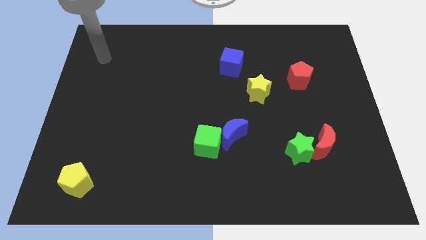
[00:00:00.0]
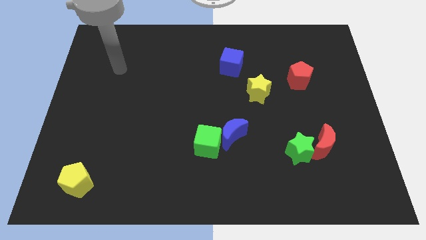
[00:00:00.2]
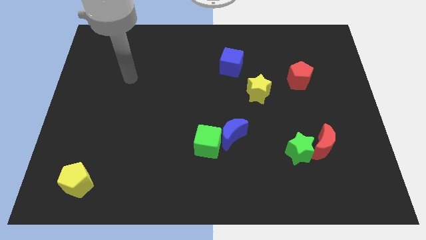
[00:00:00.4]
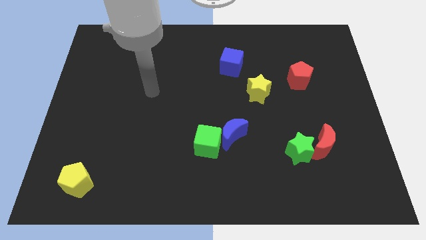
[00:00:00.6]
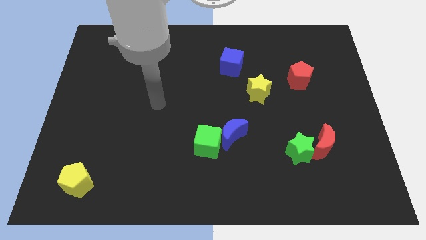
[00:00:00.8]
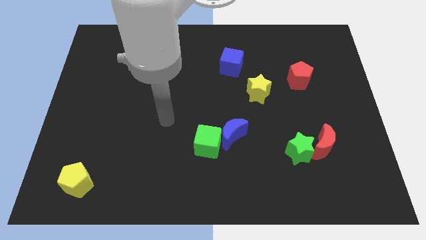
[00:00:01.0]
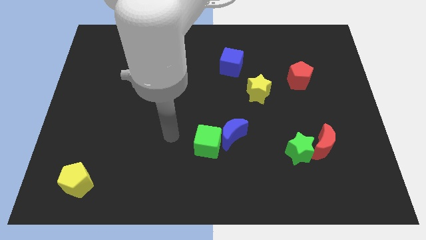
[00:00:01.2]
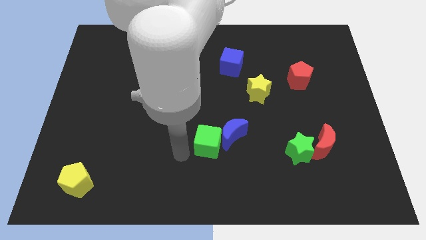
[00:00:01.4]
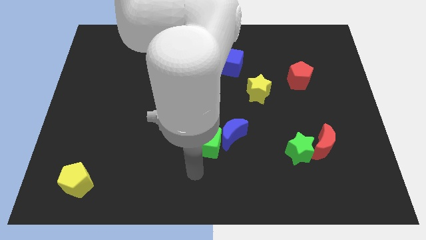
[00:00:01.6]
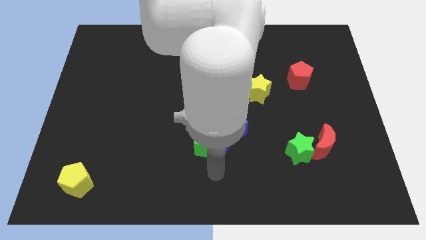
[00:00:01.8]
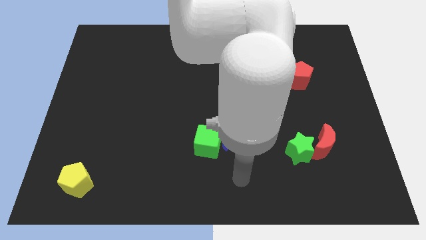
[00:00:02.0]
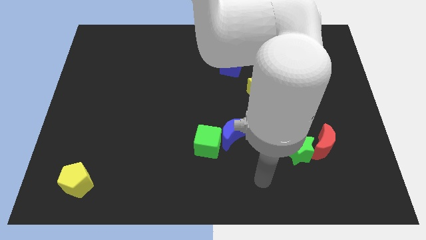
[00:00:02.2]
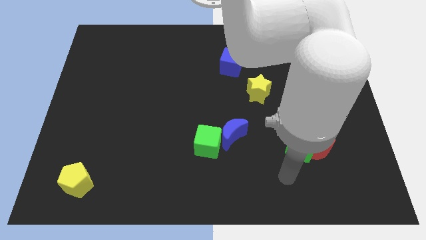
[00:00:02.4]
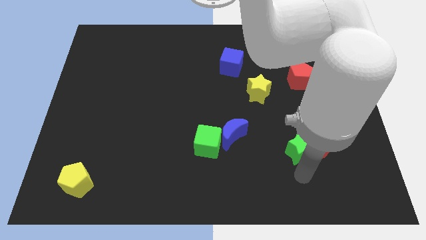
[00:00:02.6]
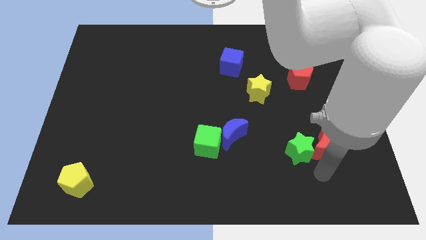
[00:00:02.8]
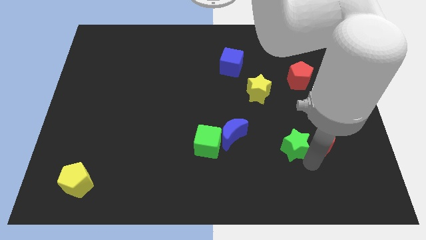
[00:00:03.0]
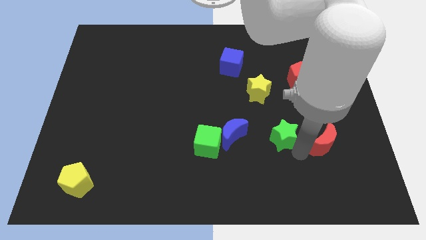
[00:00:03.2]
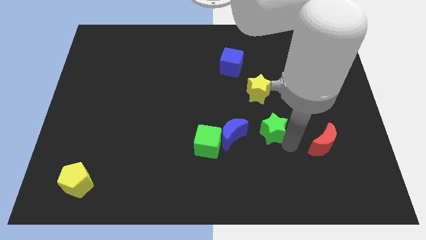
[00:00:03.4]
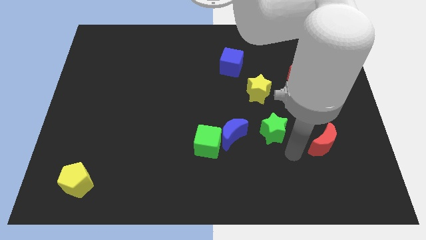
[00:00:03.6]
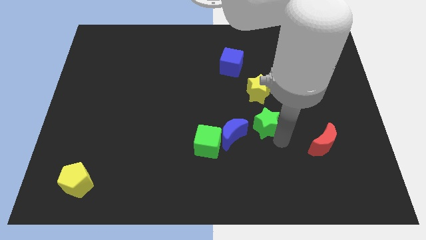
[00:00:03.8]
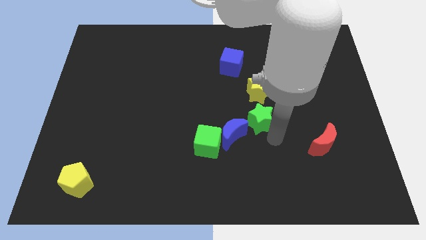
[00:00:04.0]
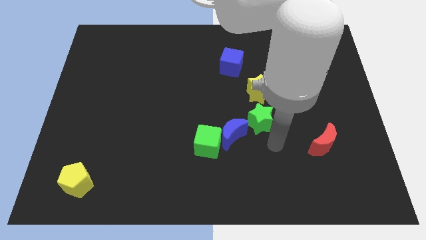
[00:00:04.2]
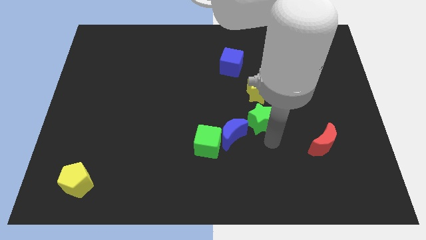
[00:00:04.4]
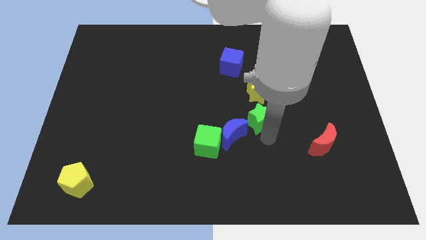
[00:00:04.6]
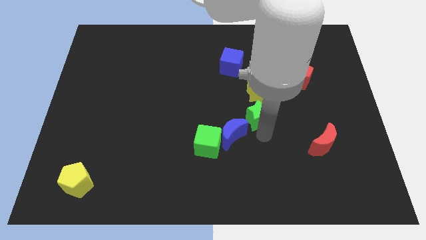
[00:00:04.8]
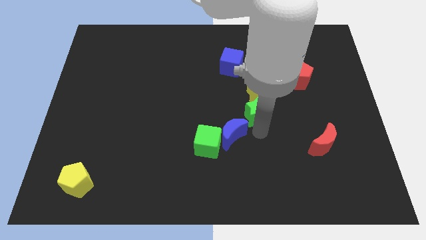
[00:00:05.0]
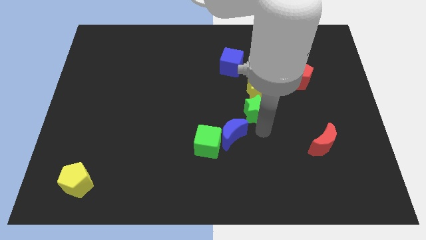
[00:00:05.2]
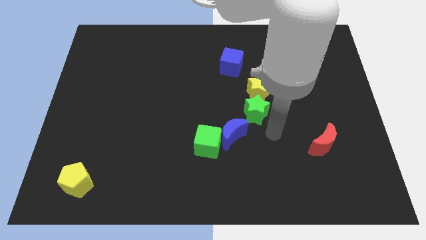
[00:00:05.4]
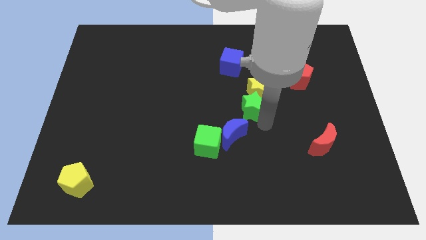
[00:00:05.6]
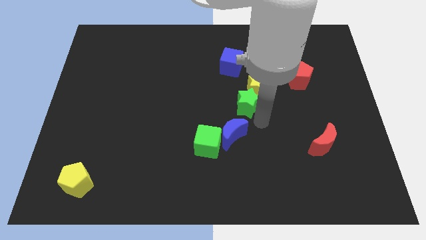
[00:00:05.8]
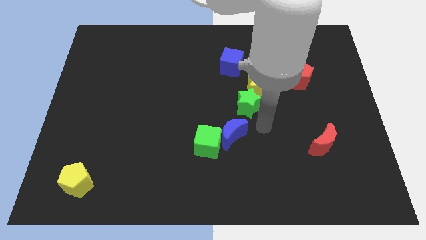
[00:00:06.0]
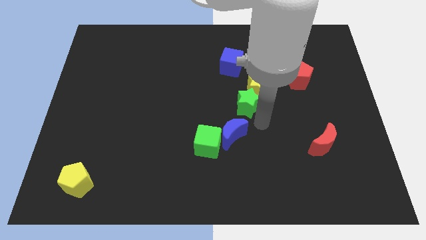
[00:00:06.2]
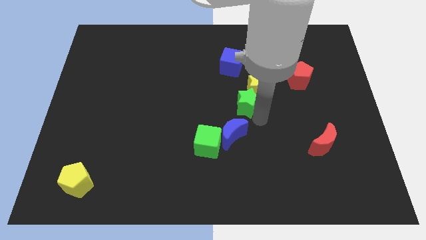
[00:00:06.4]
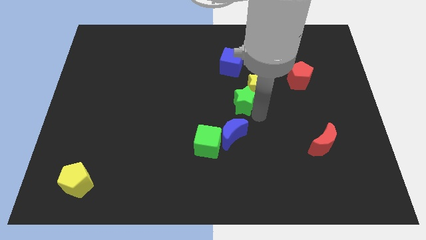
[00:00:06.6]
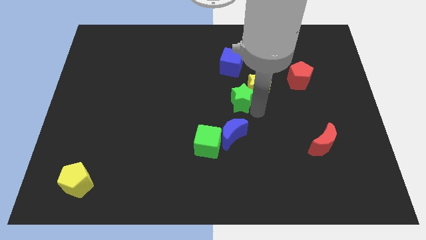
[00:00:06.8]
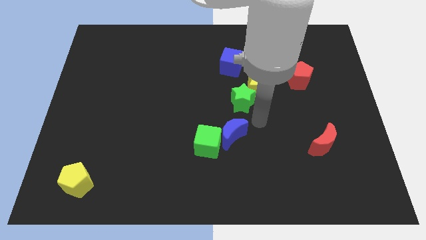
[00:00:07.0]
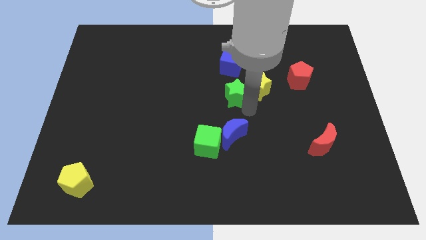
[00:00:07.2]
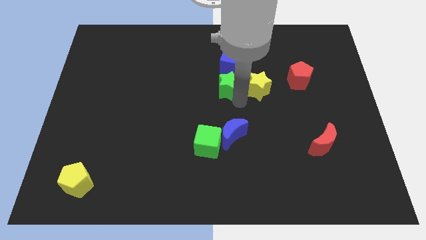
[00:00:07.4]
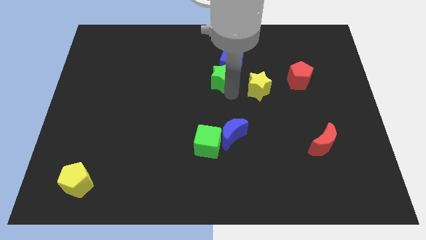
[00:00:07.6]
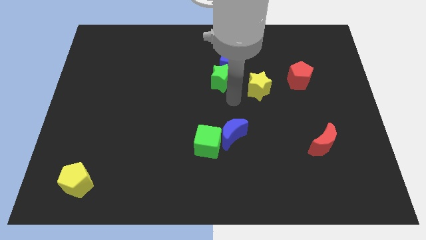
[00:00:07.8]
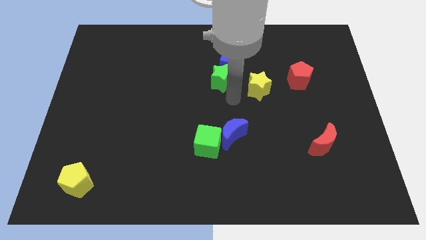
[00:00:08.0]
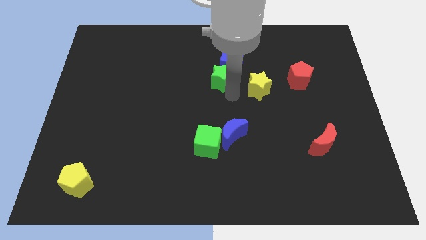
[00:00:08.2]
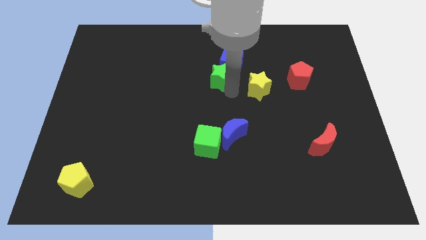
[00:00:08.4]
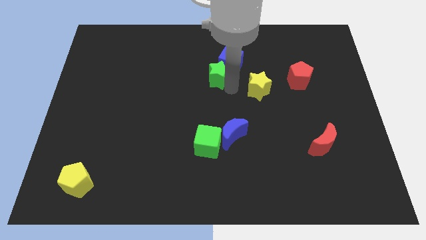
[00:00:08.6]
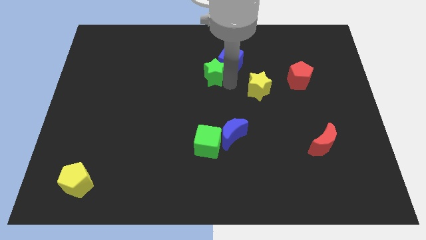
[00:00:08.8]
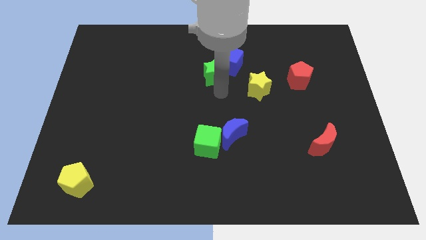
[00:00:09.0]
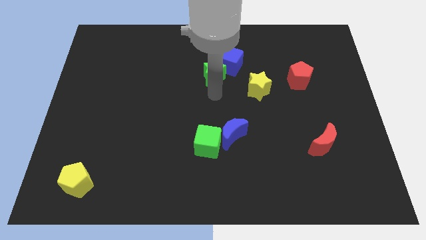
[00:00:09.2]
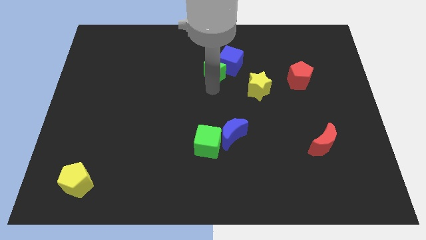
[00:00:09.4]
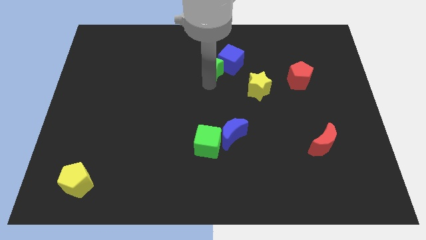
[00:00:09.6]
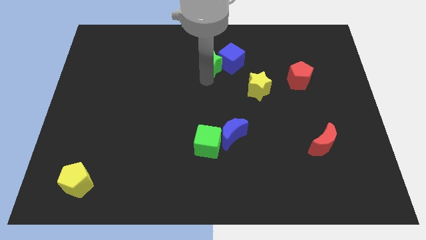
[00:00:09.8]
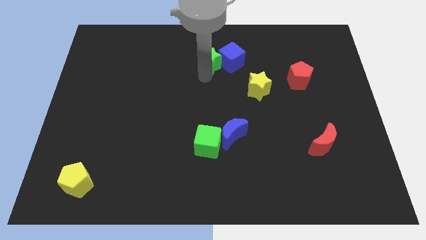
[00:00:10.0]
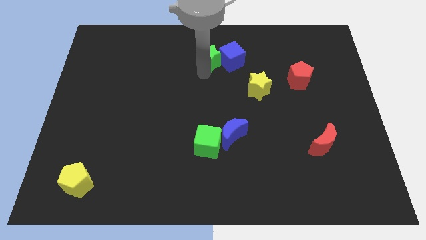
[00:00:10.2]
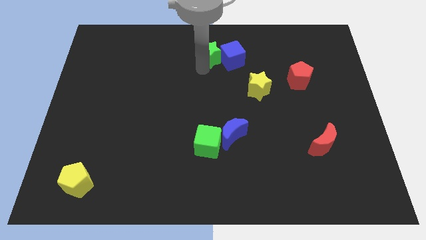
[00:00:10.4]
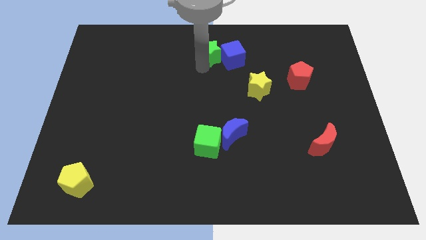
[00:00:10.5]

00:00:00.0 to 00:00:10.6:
move the green star to the top

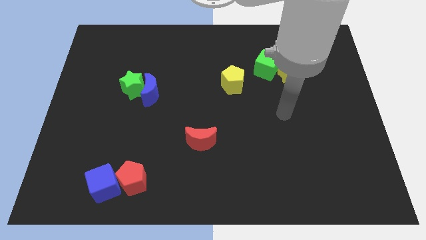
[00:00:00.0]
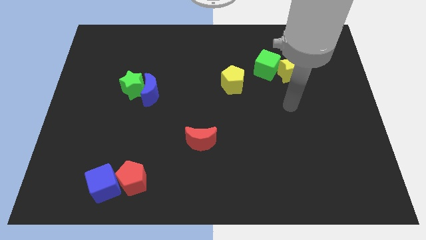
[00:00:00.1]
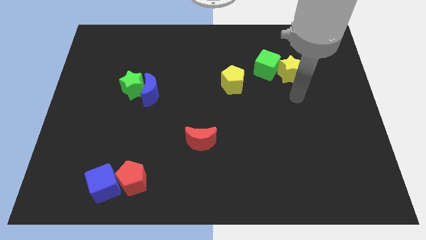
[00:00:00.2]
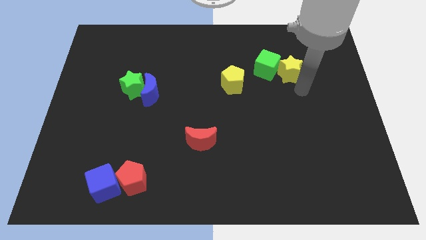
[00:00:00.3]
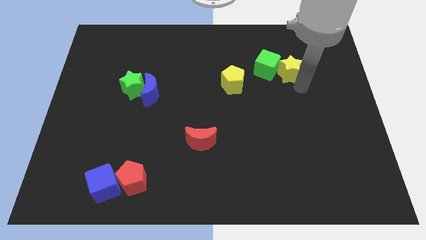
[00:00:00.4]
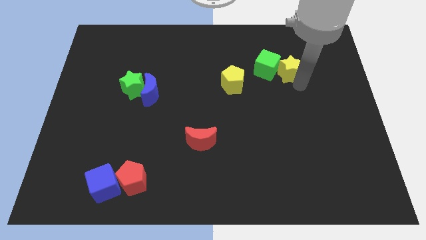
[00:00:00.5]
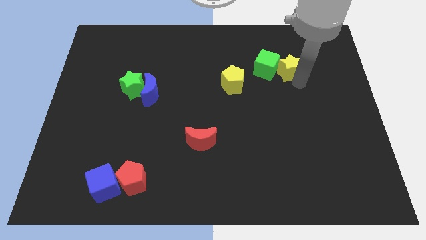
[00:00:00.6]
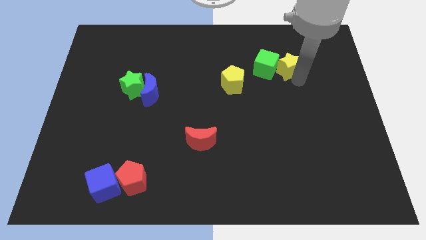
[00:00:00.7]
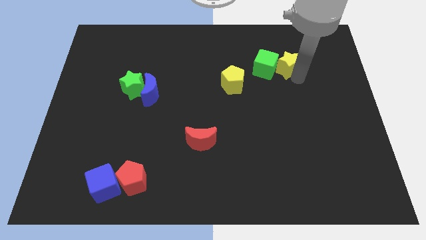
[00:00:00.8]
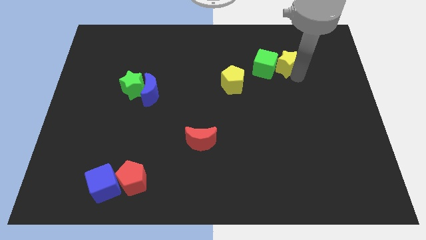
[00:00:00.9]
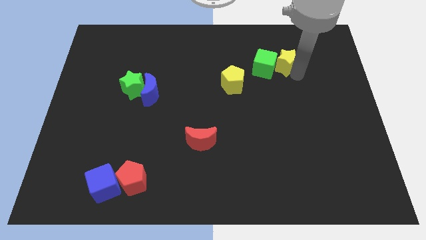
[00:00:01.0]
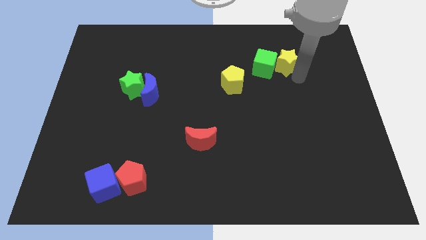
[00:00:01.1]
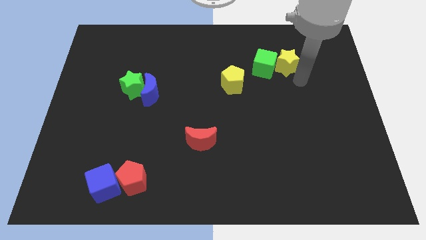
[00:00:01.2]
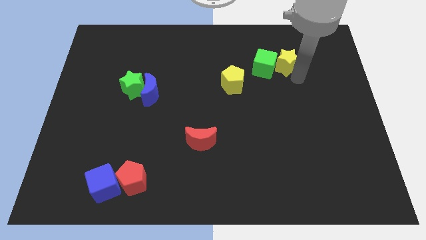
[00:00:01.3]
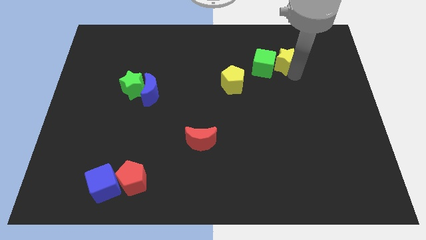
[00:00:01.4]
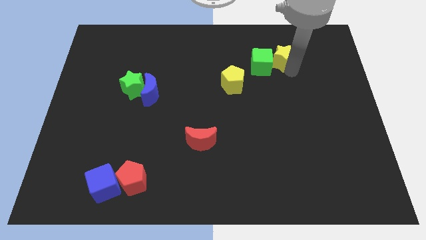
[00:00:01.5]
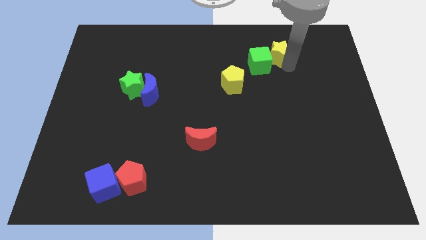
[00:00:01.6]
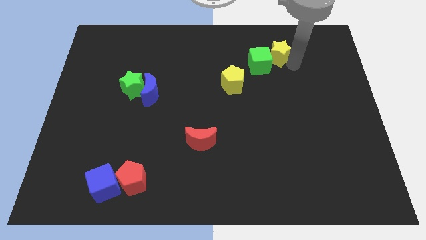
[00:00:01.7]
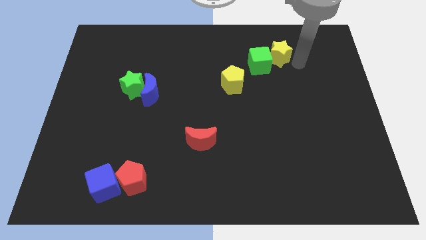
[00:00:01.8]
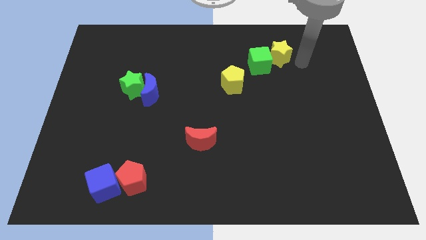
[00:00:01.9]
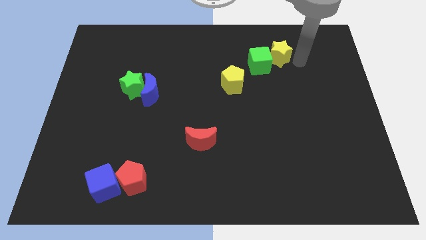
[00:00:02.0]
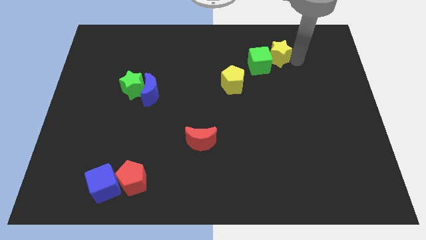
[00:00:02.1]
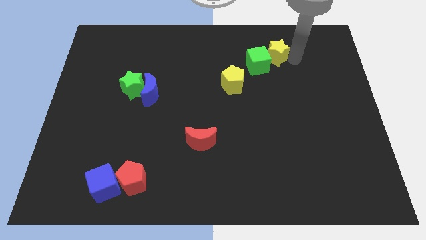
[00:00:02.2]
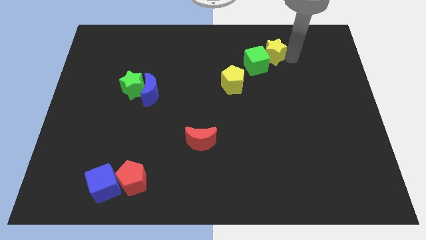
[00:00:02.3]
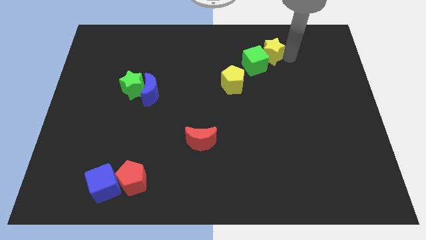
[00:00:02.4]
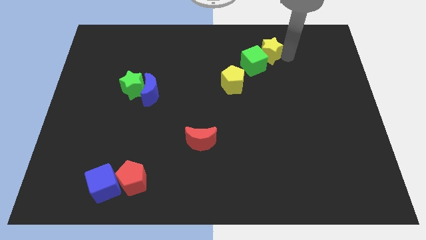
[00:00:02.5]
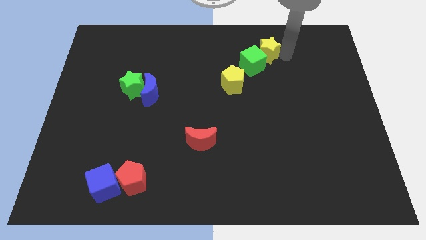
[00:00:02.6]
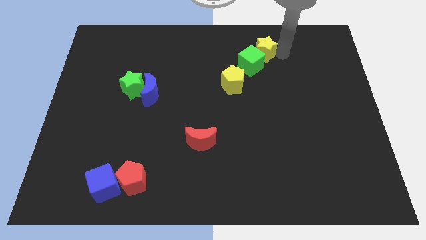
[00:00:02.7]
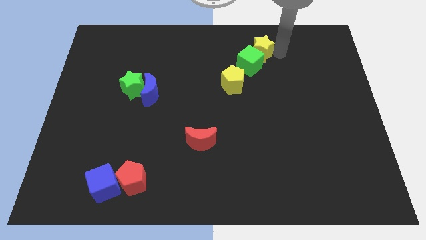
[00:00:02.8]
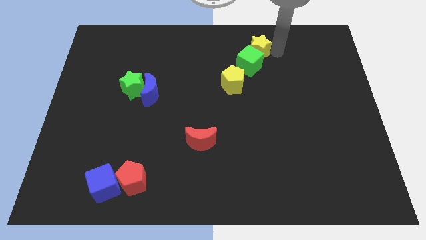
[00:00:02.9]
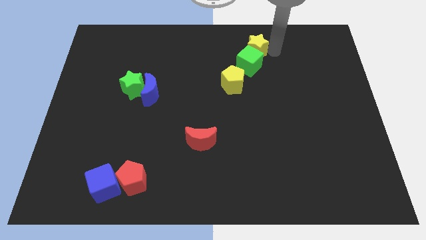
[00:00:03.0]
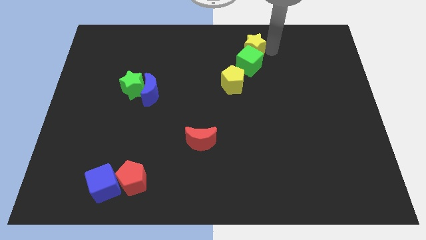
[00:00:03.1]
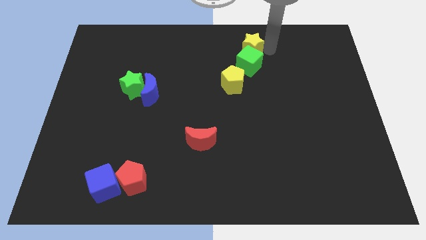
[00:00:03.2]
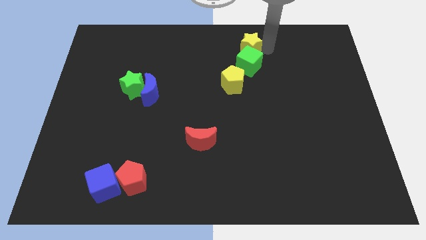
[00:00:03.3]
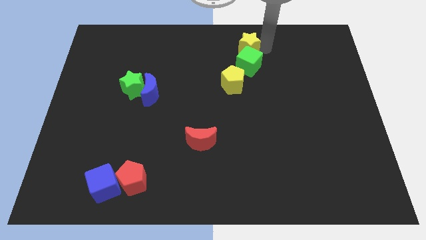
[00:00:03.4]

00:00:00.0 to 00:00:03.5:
put the yellow star to the top side
